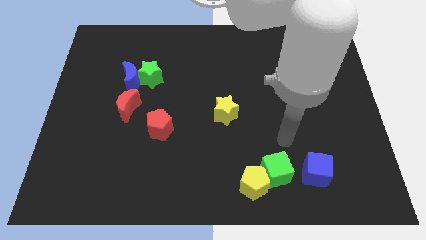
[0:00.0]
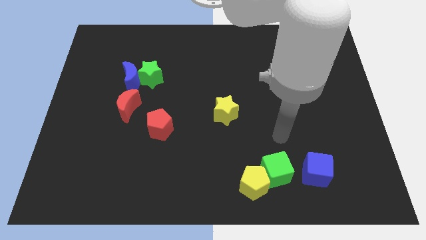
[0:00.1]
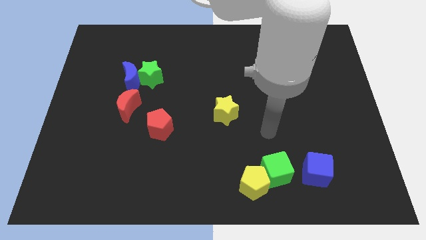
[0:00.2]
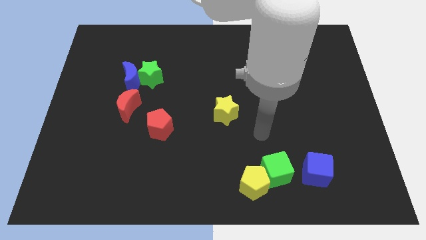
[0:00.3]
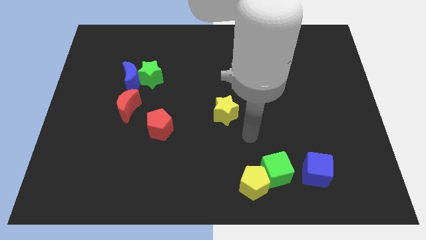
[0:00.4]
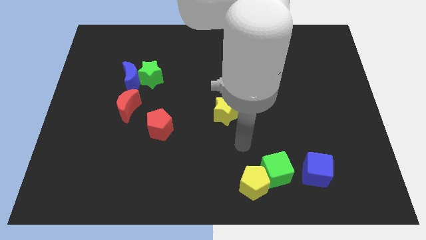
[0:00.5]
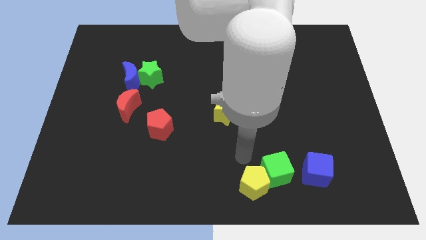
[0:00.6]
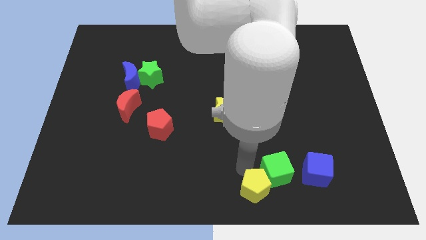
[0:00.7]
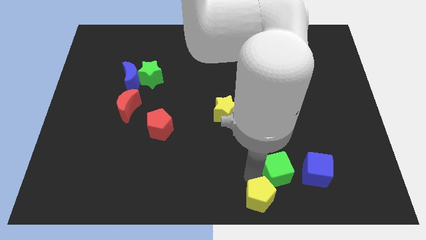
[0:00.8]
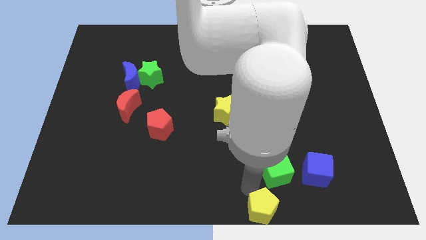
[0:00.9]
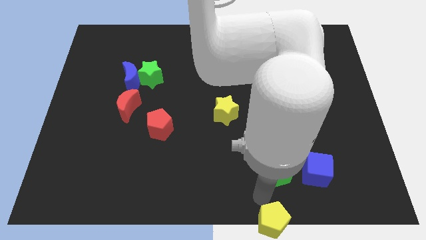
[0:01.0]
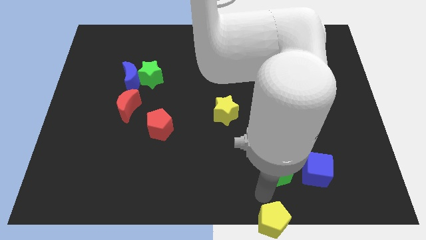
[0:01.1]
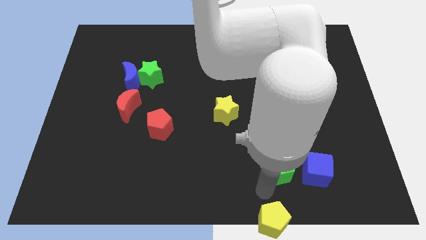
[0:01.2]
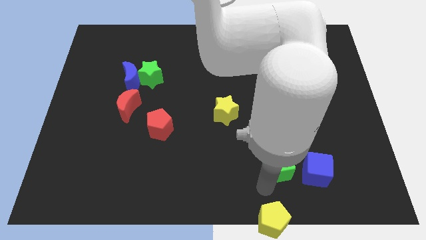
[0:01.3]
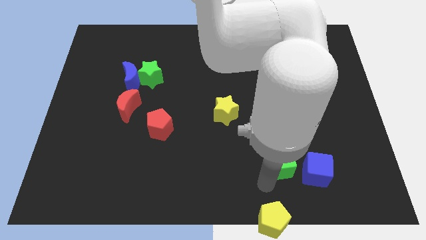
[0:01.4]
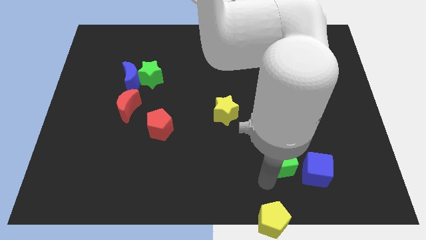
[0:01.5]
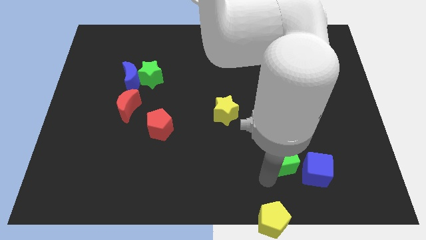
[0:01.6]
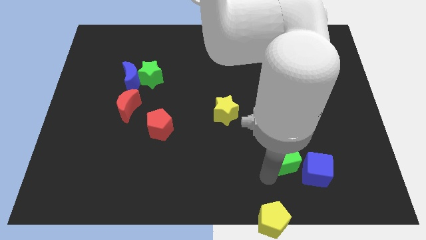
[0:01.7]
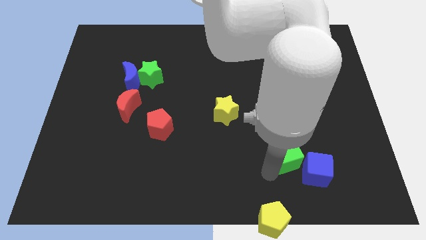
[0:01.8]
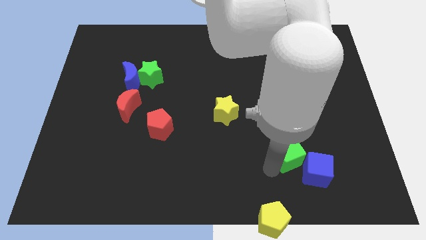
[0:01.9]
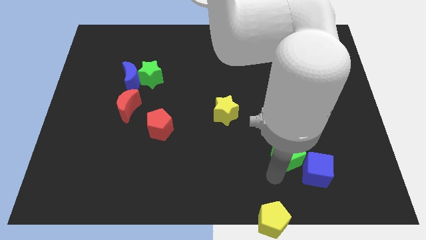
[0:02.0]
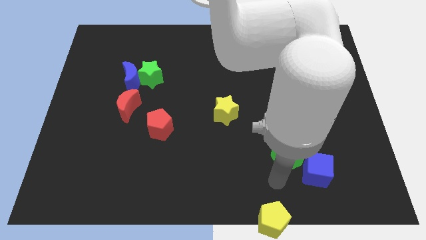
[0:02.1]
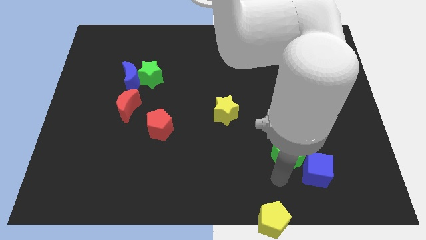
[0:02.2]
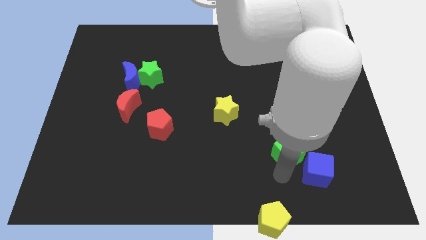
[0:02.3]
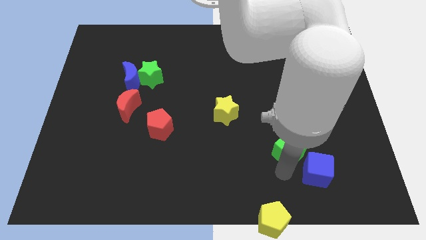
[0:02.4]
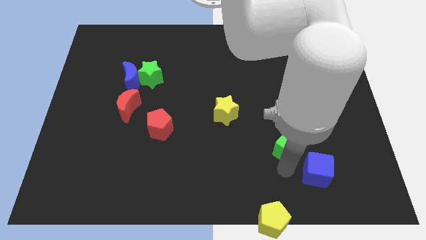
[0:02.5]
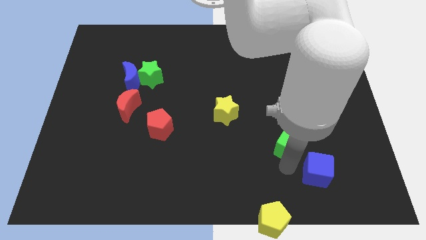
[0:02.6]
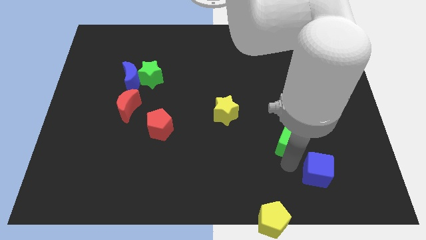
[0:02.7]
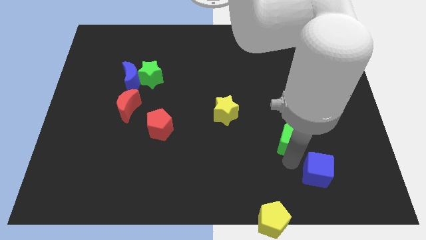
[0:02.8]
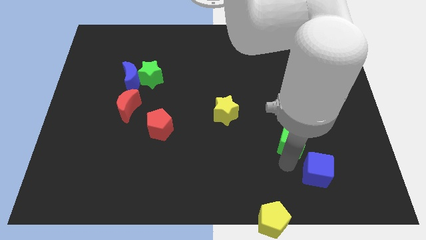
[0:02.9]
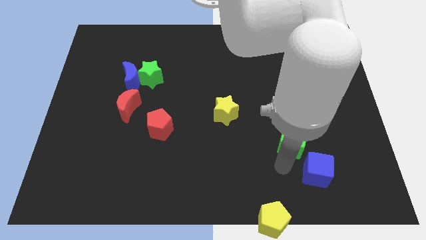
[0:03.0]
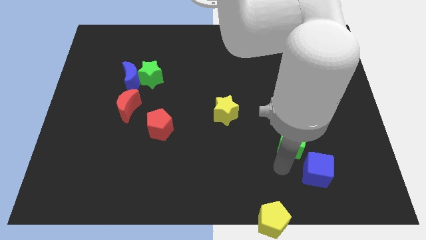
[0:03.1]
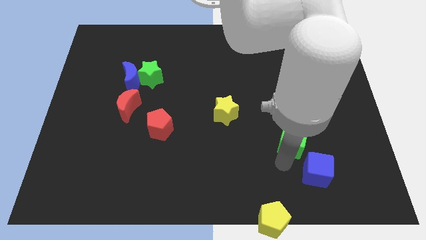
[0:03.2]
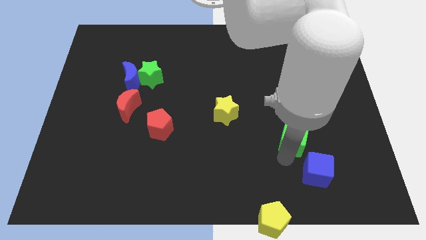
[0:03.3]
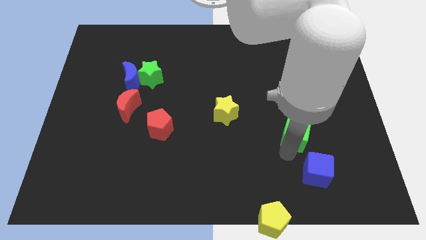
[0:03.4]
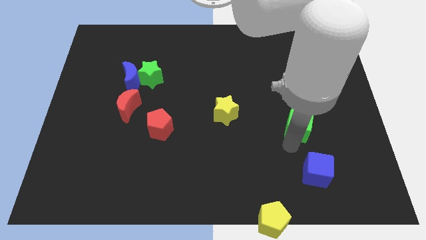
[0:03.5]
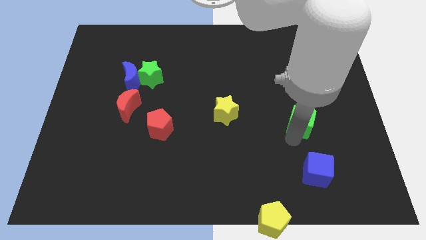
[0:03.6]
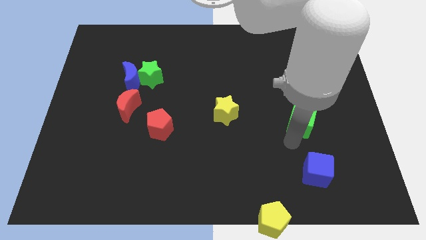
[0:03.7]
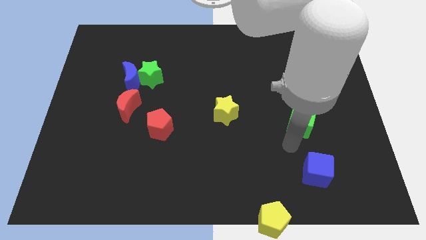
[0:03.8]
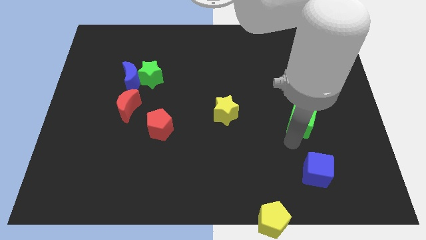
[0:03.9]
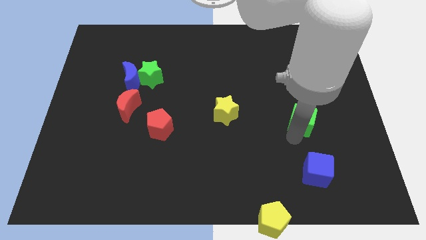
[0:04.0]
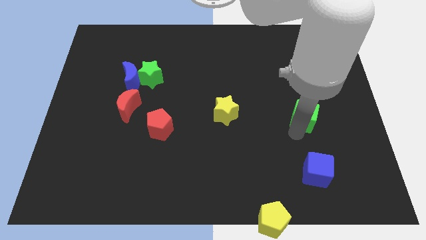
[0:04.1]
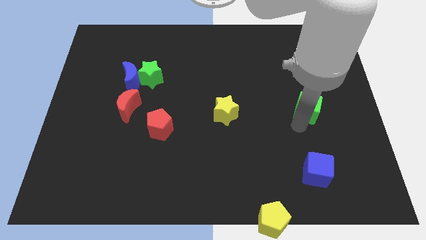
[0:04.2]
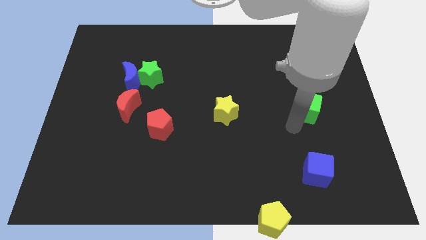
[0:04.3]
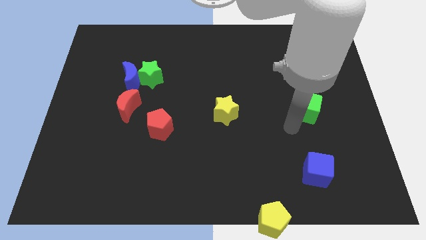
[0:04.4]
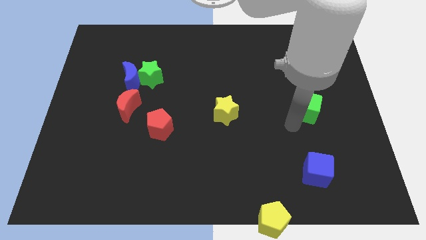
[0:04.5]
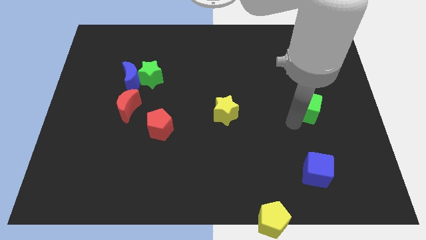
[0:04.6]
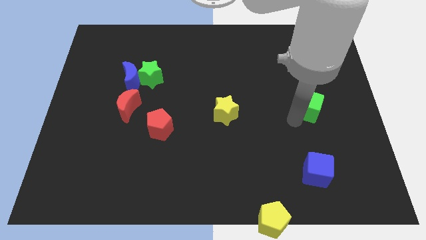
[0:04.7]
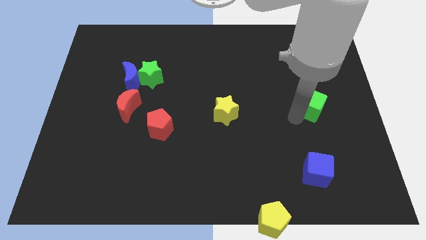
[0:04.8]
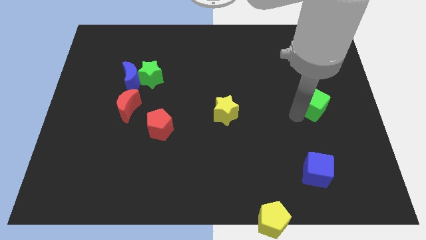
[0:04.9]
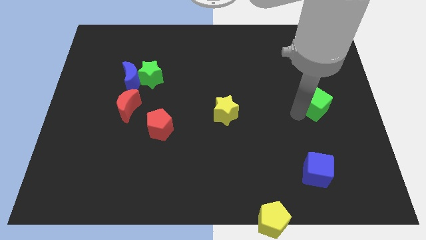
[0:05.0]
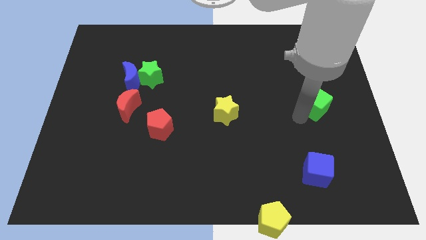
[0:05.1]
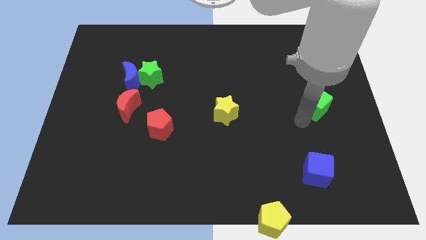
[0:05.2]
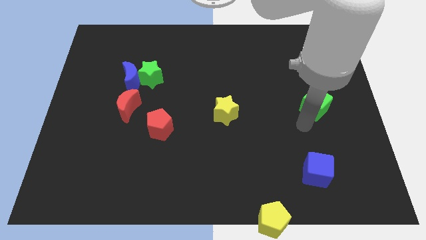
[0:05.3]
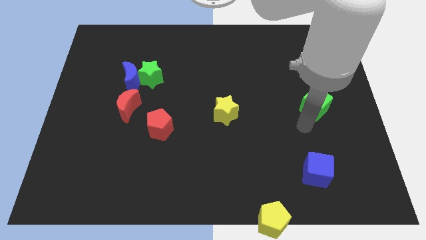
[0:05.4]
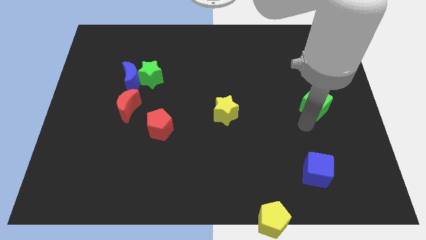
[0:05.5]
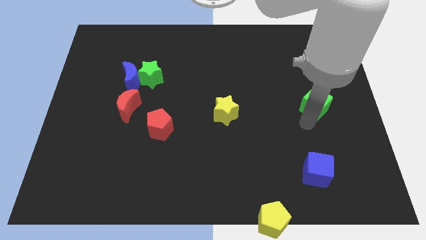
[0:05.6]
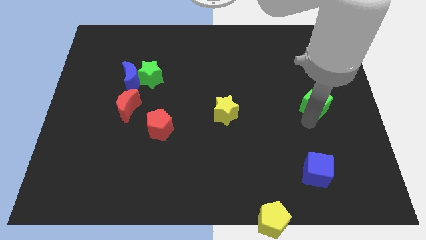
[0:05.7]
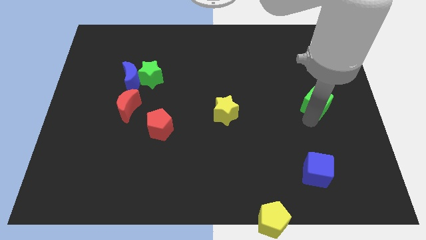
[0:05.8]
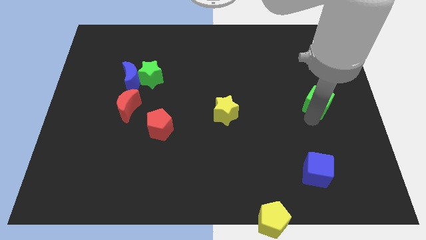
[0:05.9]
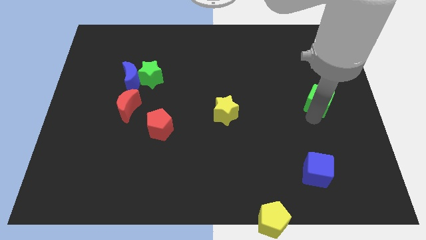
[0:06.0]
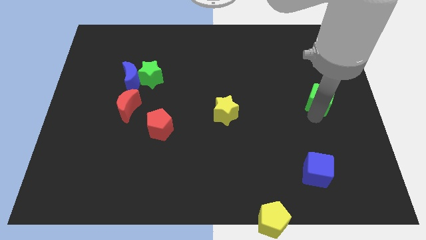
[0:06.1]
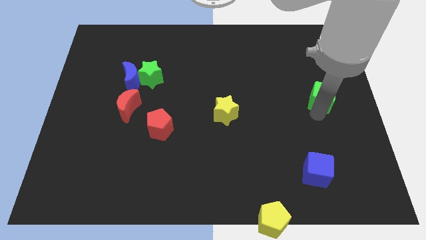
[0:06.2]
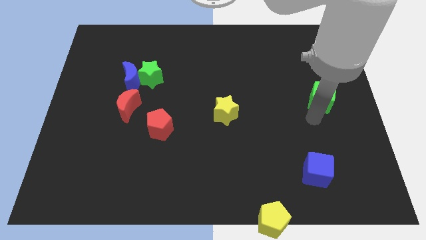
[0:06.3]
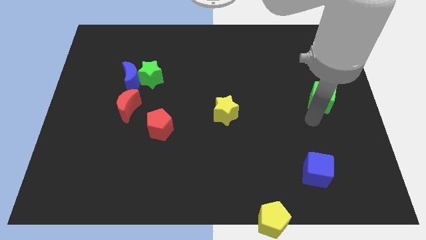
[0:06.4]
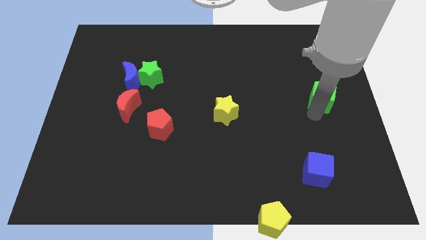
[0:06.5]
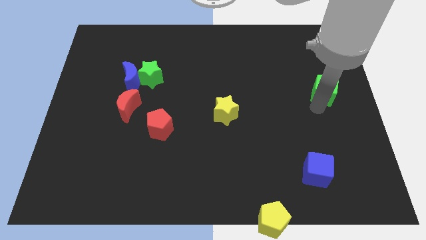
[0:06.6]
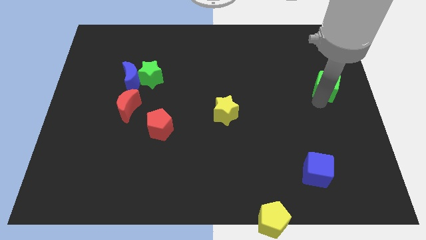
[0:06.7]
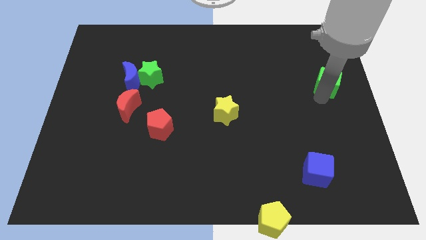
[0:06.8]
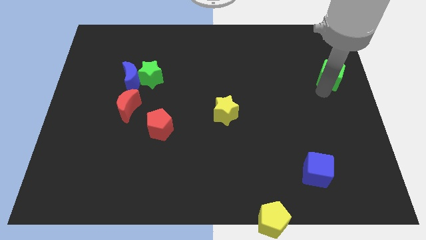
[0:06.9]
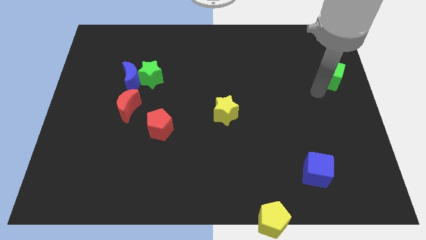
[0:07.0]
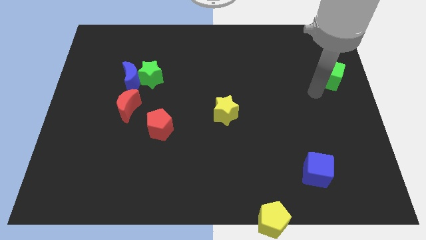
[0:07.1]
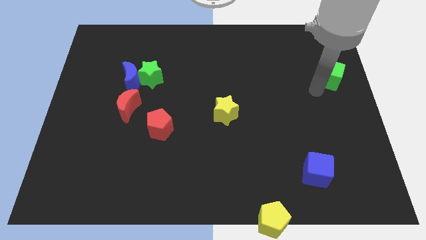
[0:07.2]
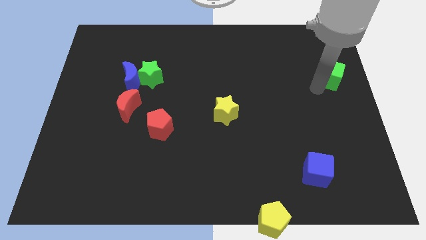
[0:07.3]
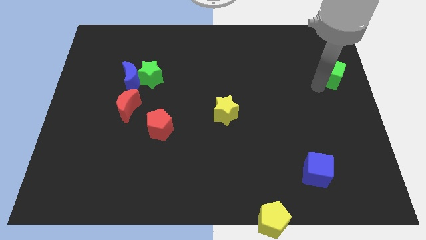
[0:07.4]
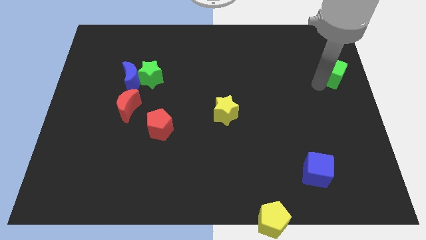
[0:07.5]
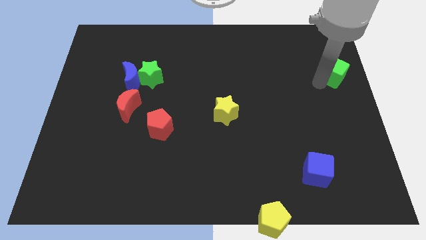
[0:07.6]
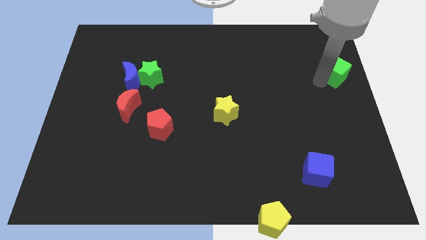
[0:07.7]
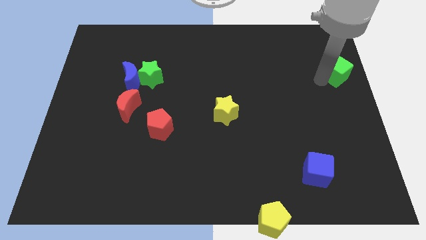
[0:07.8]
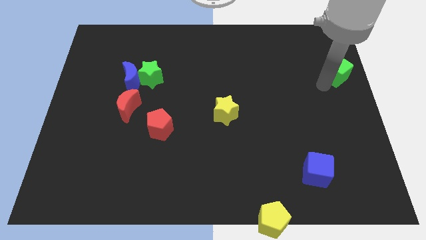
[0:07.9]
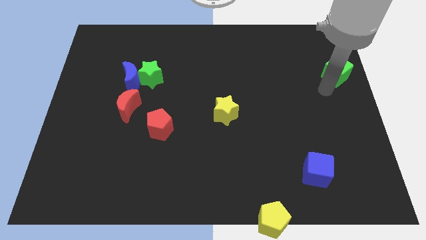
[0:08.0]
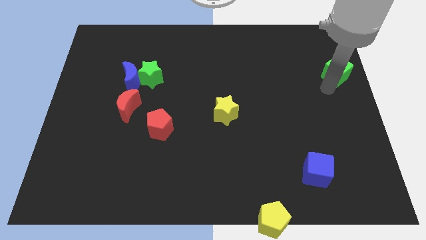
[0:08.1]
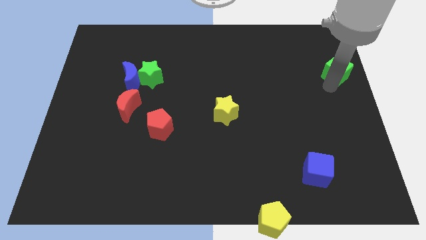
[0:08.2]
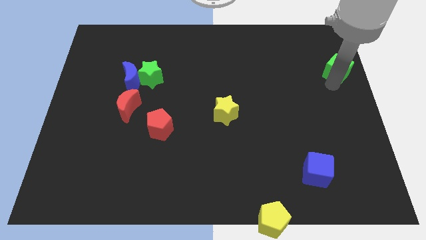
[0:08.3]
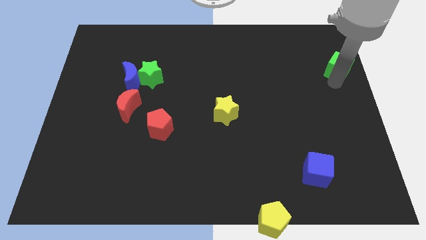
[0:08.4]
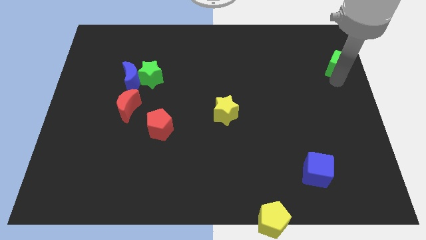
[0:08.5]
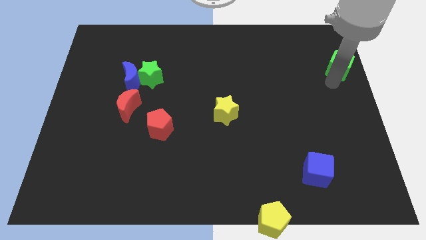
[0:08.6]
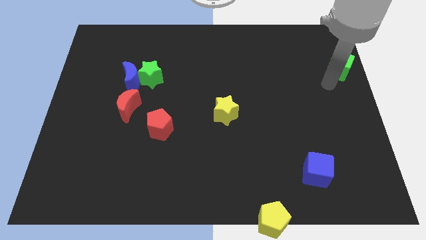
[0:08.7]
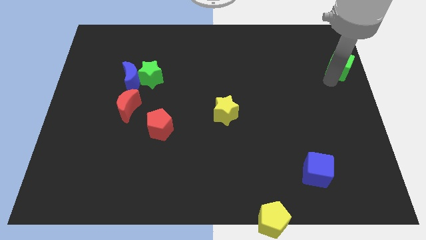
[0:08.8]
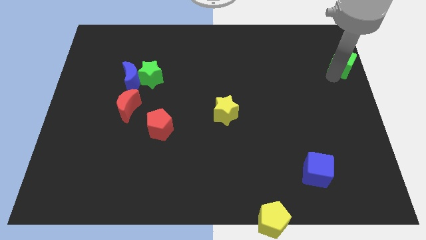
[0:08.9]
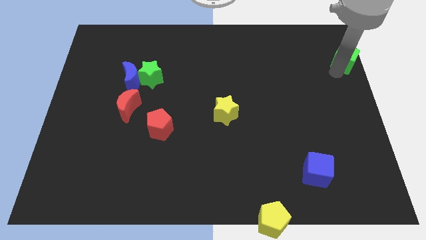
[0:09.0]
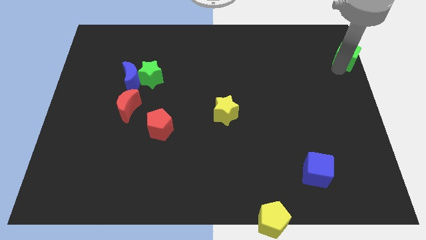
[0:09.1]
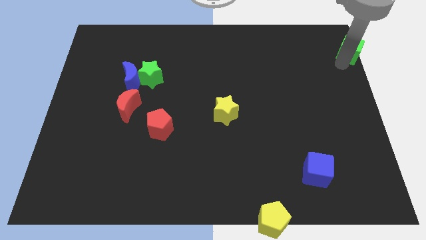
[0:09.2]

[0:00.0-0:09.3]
slide the green cube to the upper right corner
